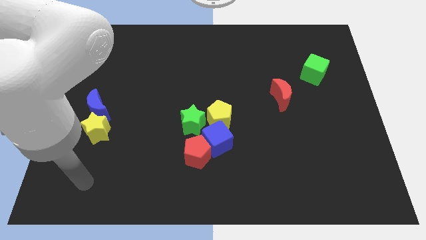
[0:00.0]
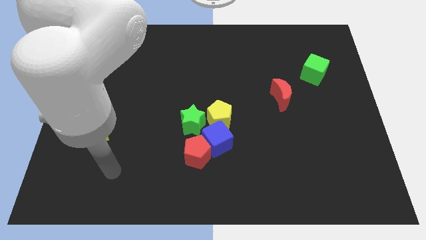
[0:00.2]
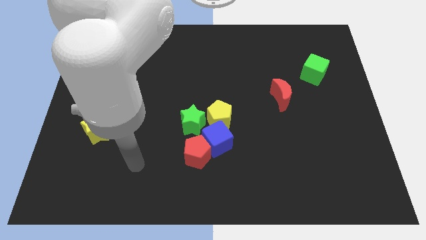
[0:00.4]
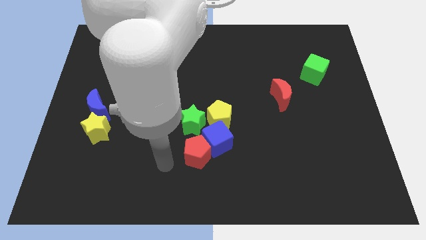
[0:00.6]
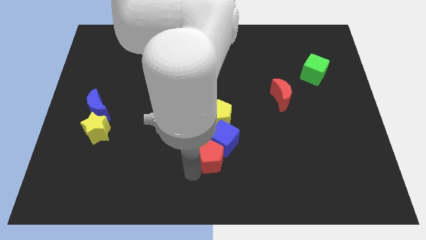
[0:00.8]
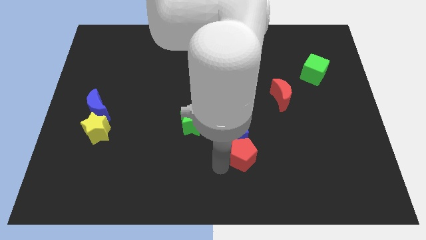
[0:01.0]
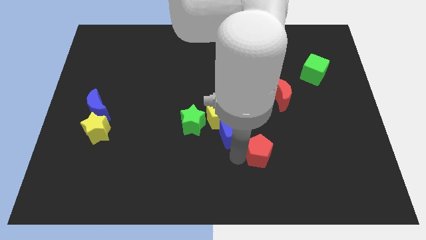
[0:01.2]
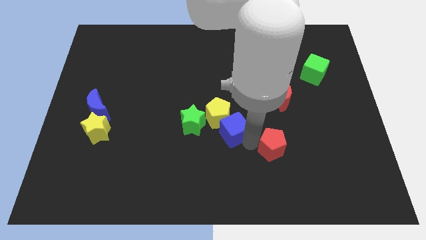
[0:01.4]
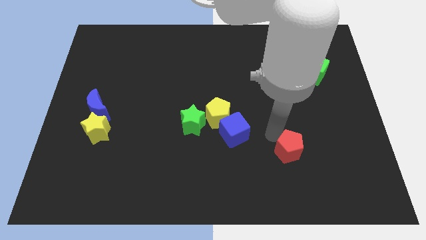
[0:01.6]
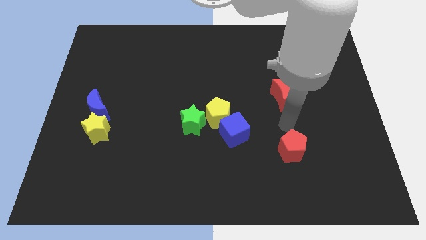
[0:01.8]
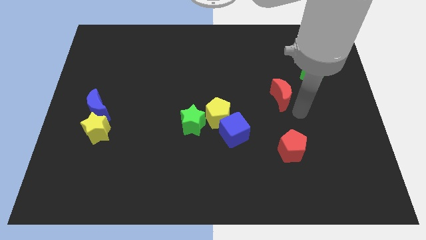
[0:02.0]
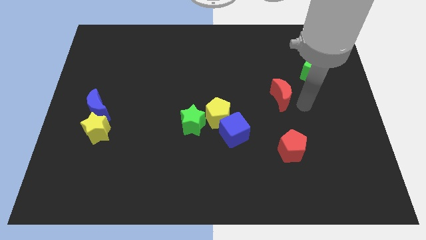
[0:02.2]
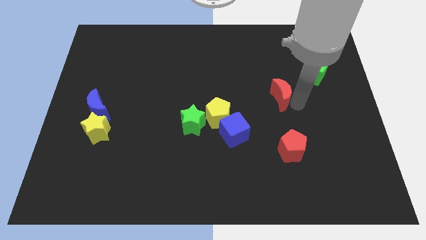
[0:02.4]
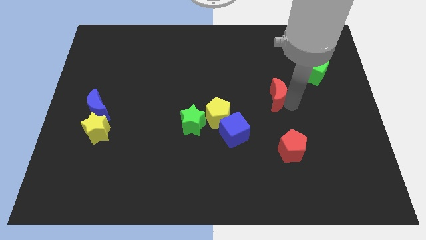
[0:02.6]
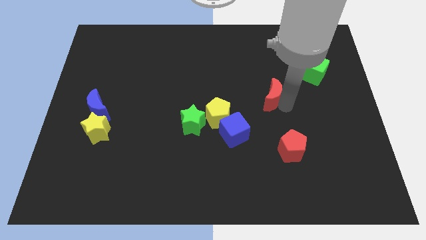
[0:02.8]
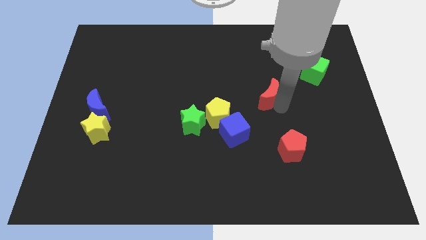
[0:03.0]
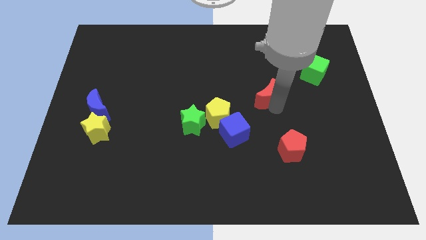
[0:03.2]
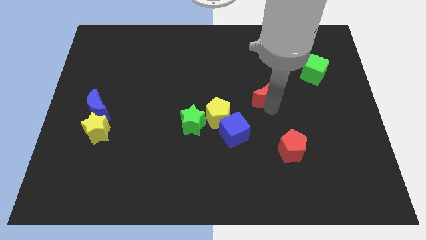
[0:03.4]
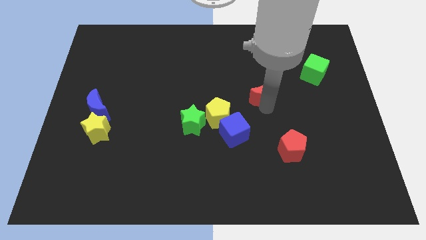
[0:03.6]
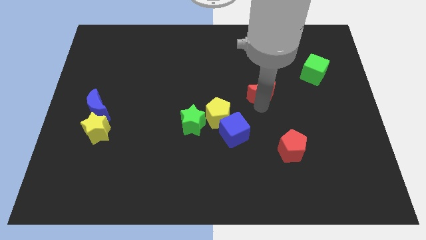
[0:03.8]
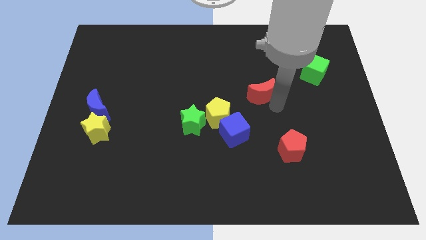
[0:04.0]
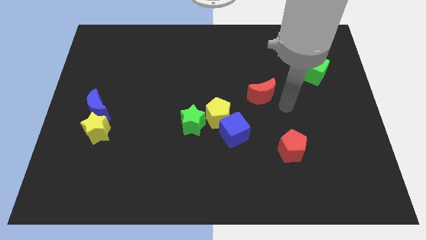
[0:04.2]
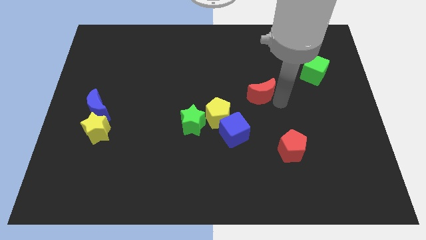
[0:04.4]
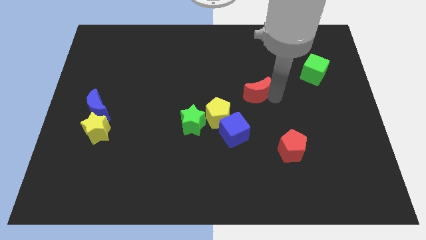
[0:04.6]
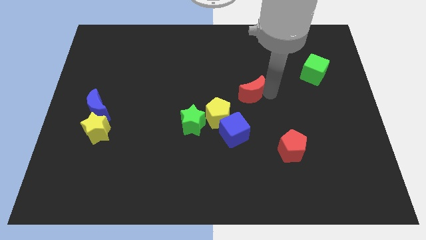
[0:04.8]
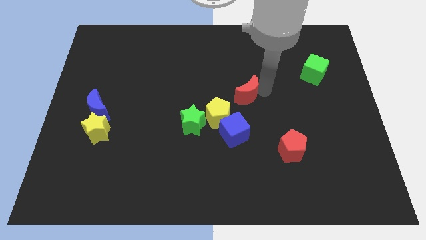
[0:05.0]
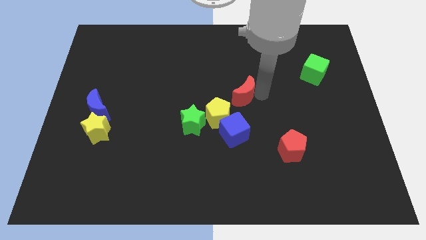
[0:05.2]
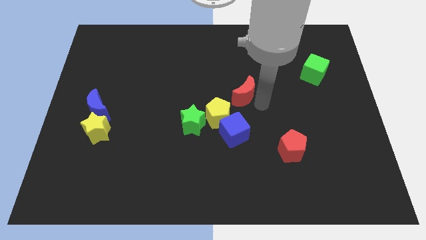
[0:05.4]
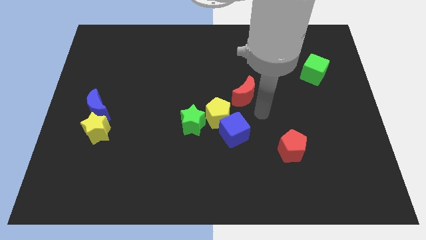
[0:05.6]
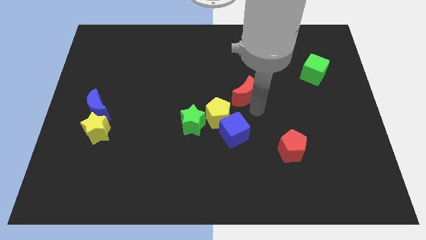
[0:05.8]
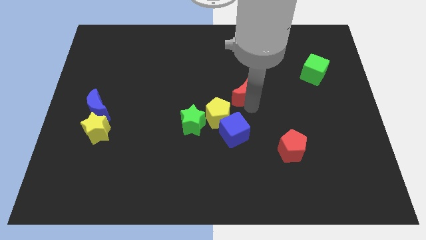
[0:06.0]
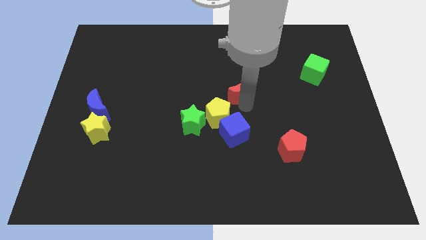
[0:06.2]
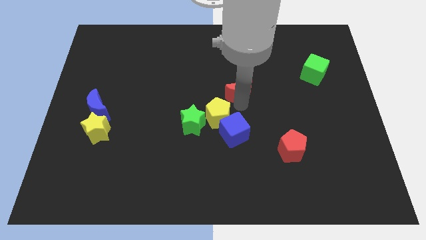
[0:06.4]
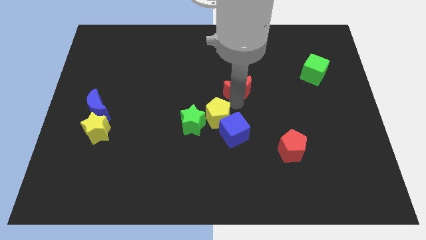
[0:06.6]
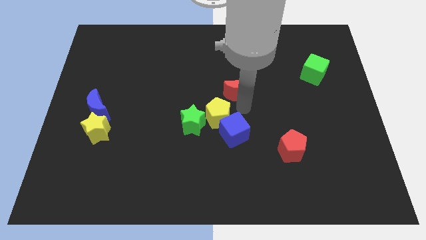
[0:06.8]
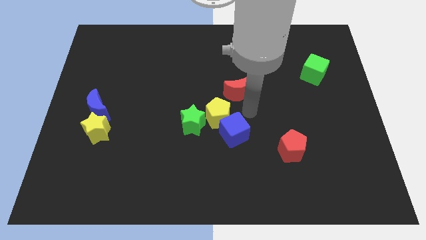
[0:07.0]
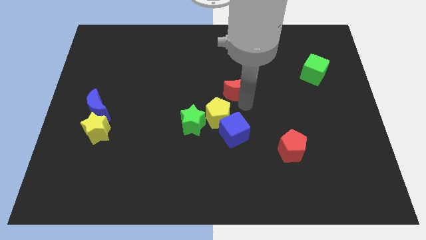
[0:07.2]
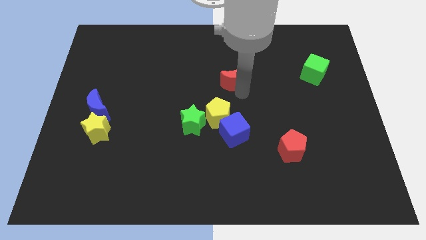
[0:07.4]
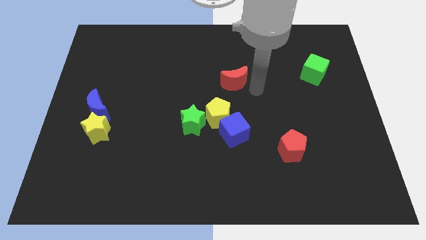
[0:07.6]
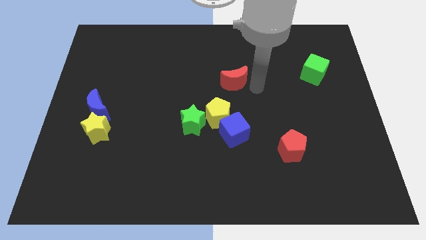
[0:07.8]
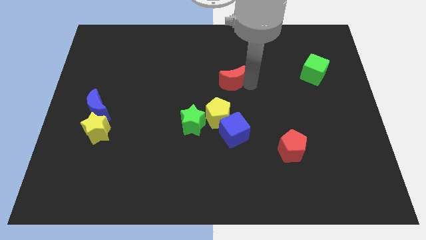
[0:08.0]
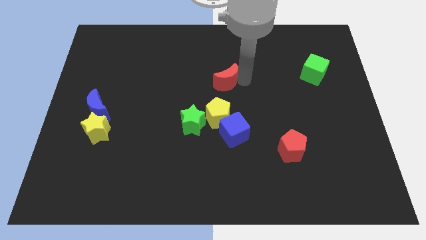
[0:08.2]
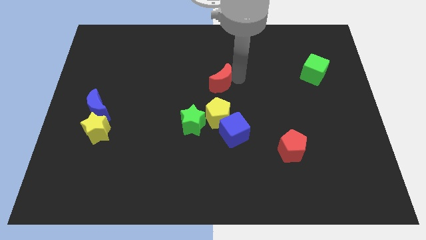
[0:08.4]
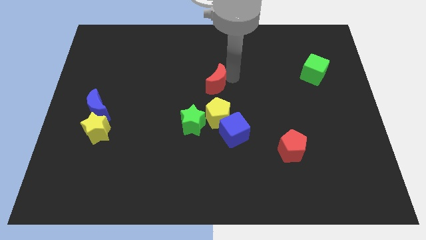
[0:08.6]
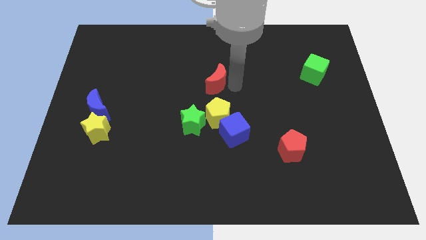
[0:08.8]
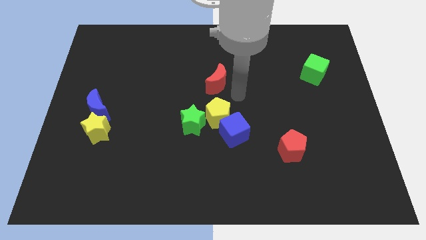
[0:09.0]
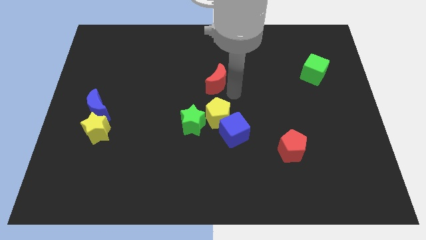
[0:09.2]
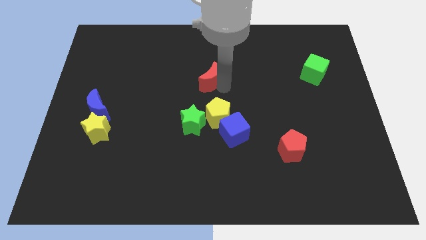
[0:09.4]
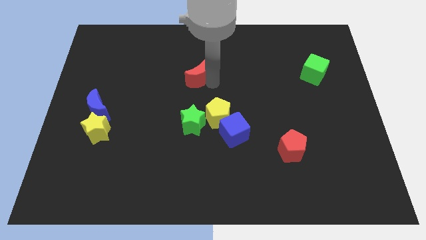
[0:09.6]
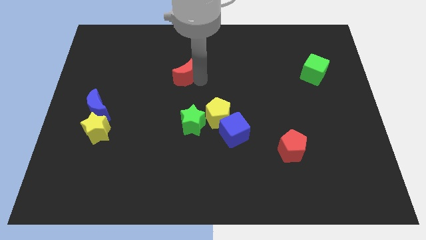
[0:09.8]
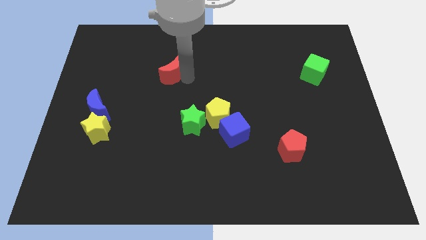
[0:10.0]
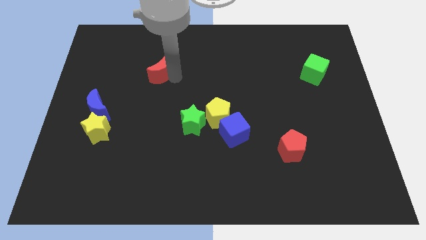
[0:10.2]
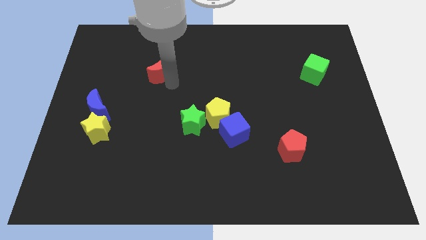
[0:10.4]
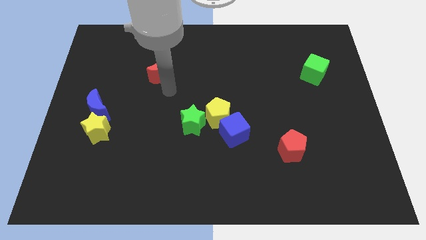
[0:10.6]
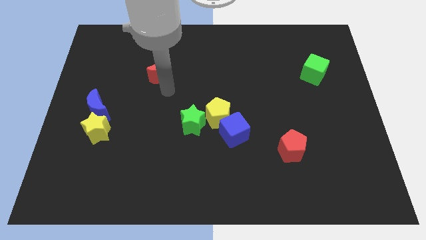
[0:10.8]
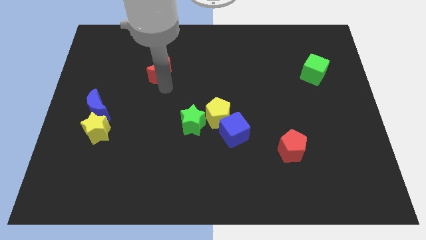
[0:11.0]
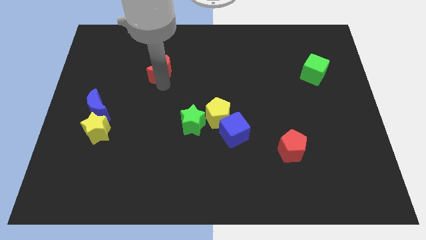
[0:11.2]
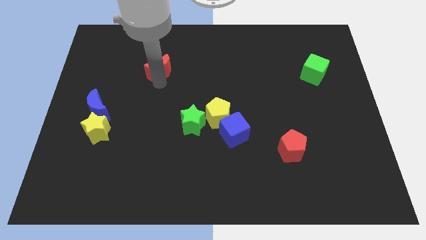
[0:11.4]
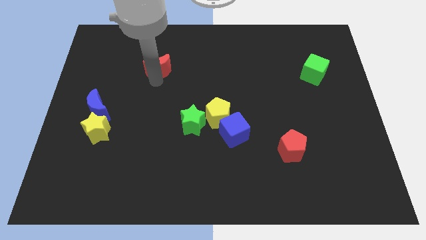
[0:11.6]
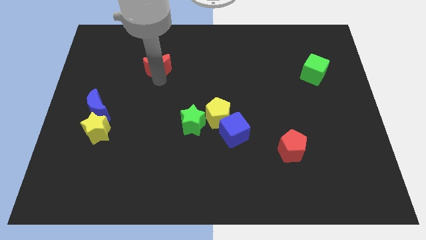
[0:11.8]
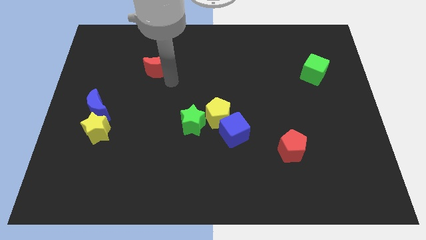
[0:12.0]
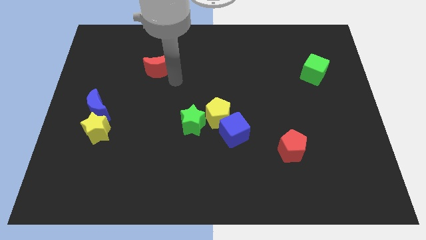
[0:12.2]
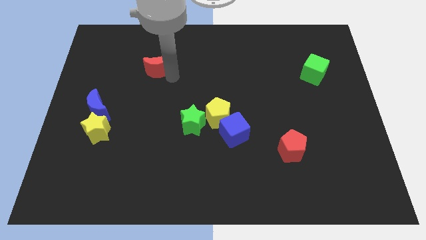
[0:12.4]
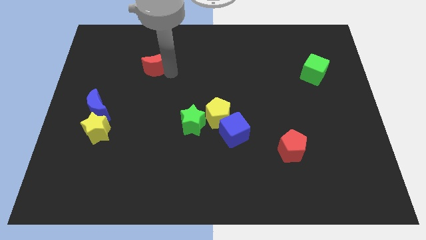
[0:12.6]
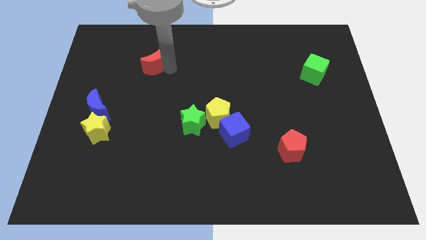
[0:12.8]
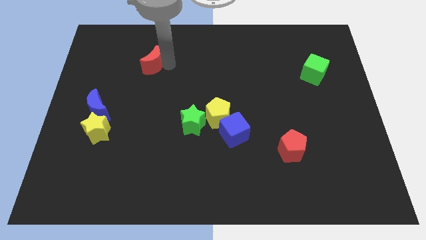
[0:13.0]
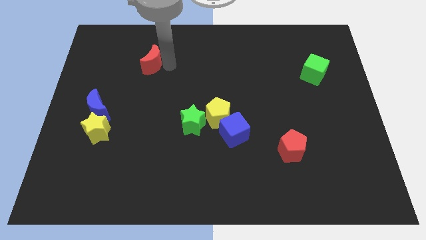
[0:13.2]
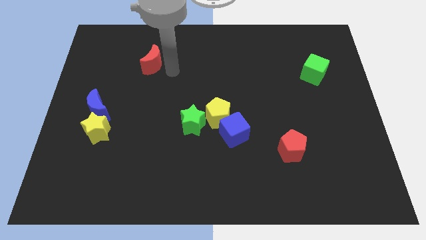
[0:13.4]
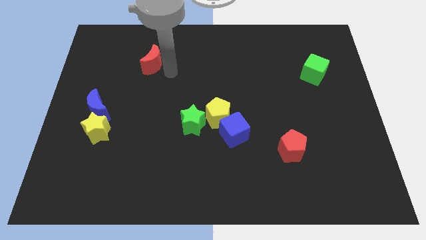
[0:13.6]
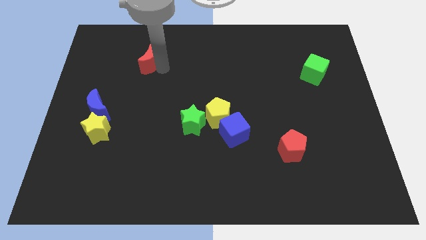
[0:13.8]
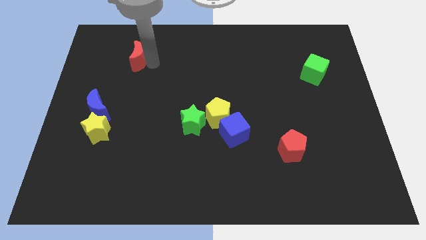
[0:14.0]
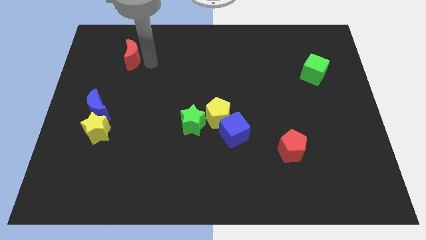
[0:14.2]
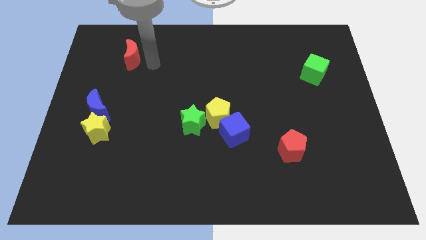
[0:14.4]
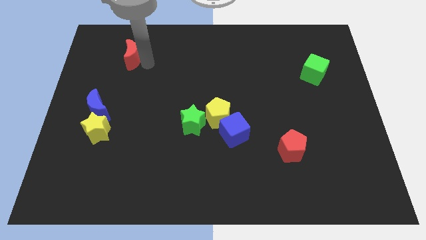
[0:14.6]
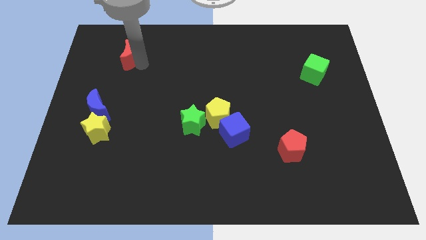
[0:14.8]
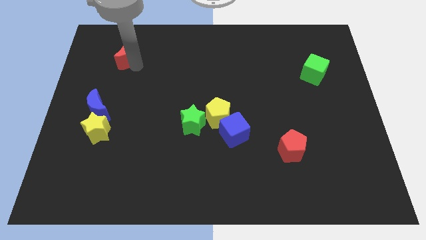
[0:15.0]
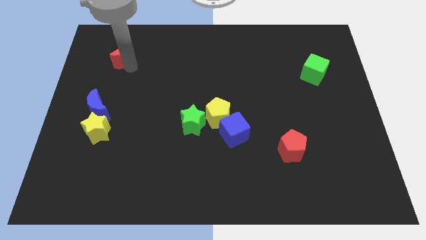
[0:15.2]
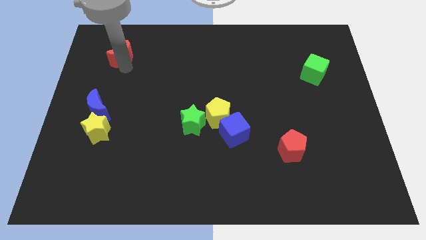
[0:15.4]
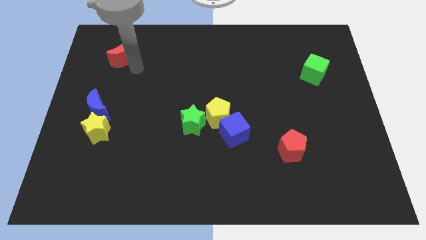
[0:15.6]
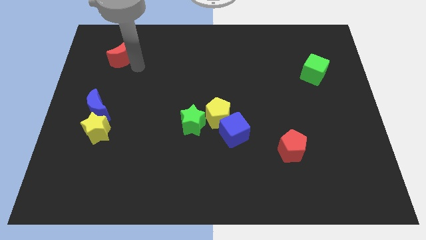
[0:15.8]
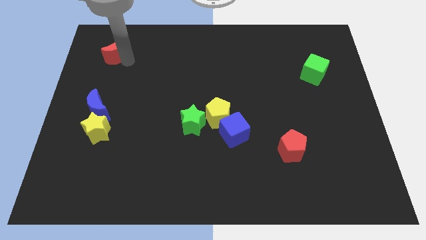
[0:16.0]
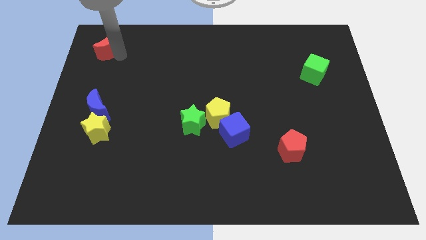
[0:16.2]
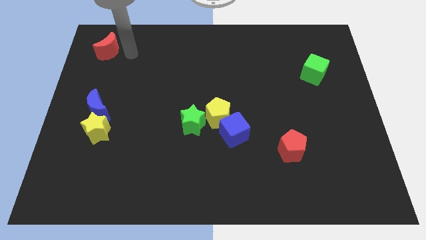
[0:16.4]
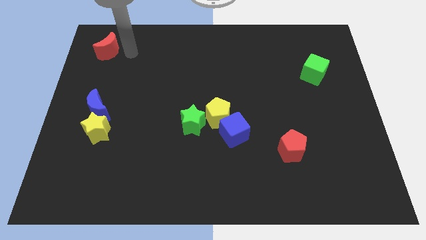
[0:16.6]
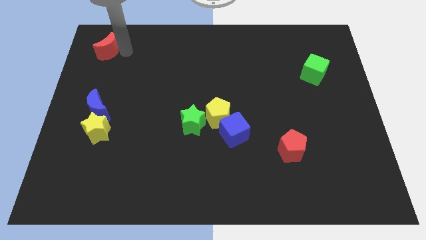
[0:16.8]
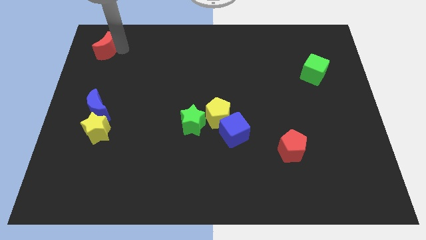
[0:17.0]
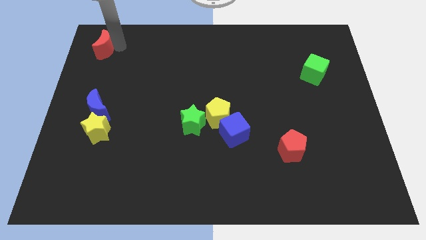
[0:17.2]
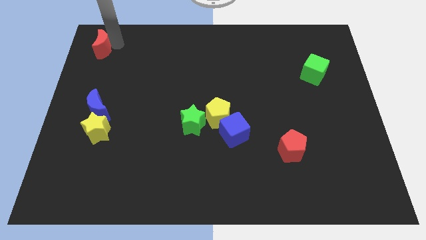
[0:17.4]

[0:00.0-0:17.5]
put the red moon to the upper left corner
